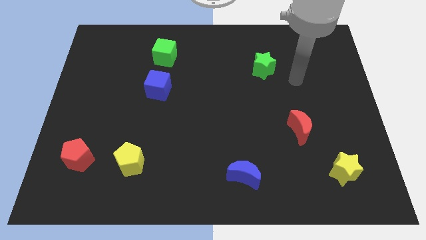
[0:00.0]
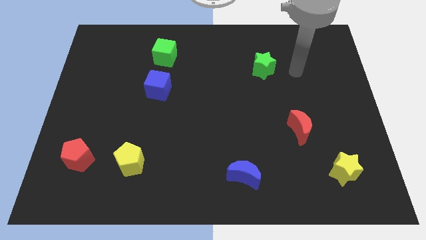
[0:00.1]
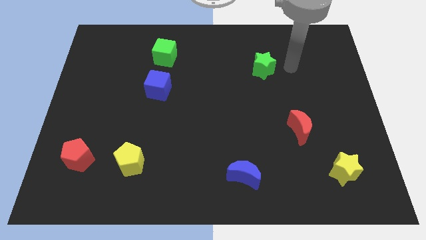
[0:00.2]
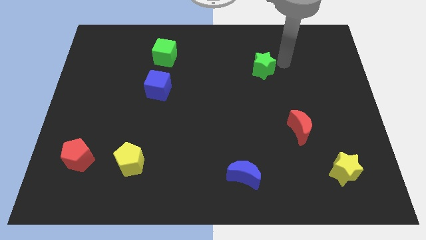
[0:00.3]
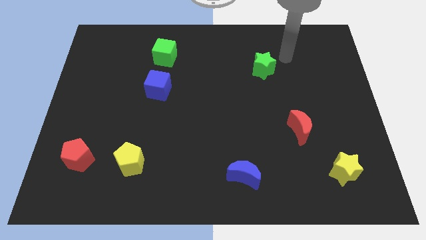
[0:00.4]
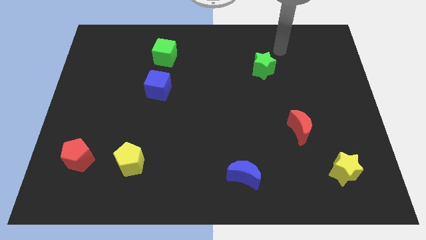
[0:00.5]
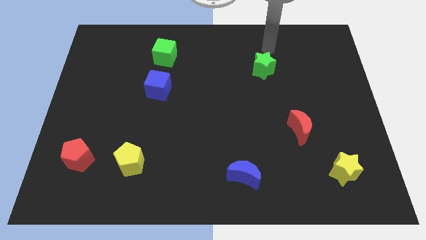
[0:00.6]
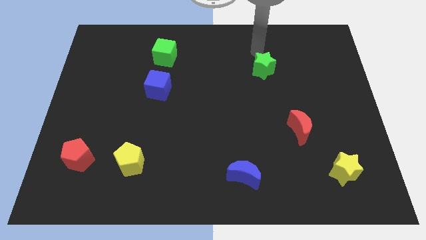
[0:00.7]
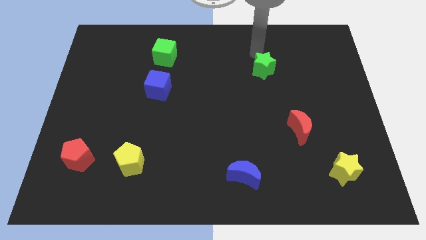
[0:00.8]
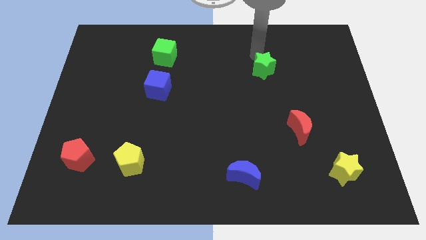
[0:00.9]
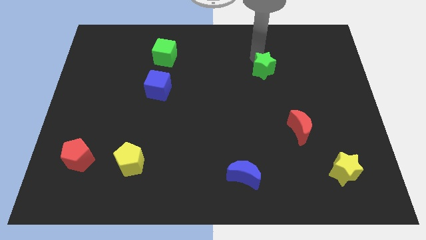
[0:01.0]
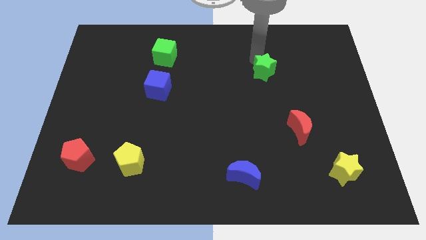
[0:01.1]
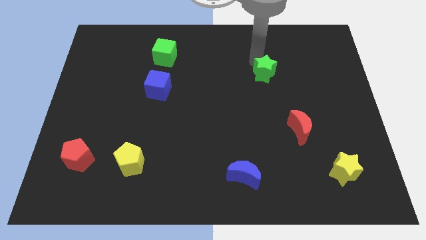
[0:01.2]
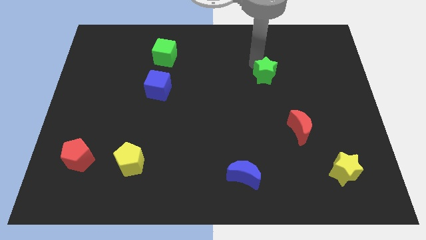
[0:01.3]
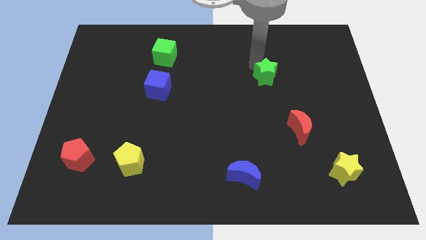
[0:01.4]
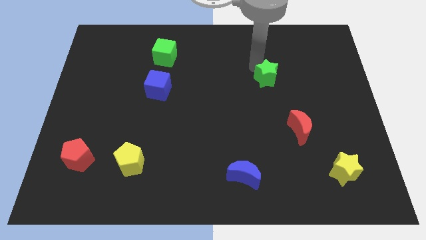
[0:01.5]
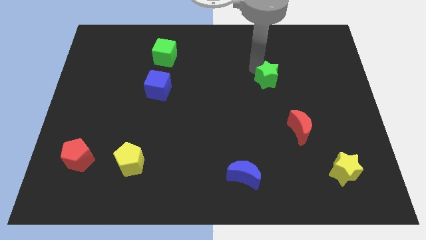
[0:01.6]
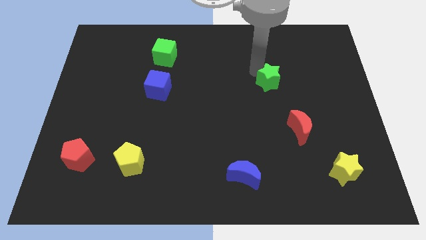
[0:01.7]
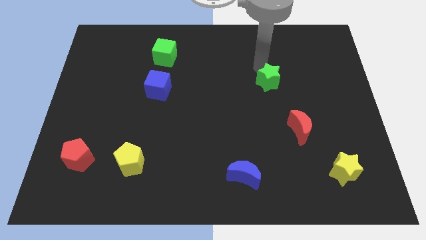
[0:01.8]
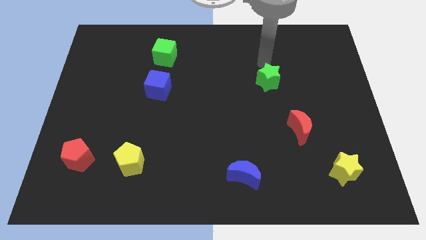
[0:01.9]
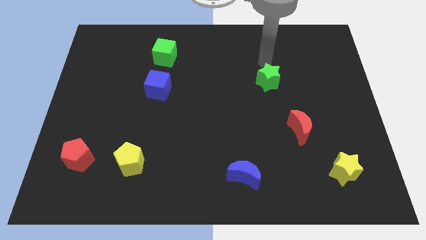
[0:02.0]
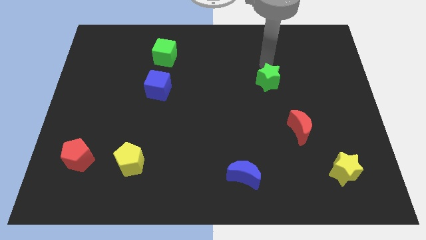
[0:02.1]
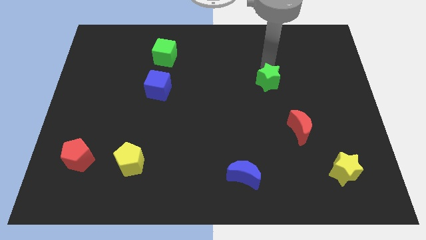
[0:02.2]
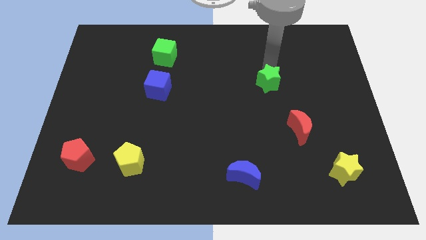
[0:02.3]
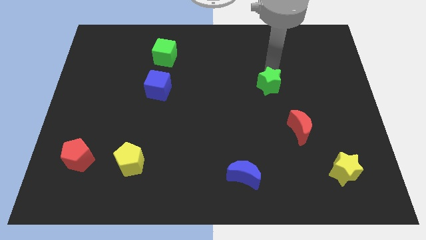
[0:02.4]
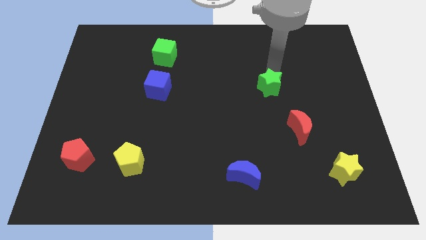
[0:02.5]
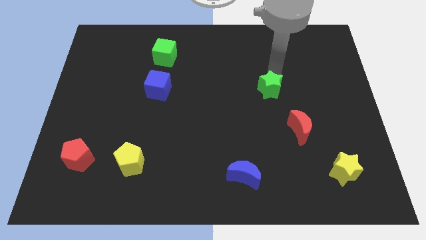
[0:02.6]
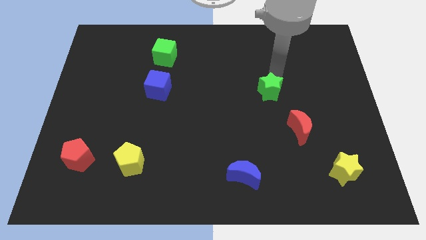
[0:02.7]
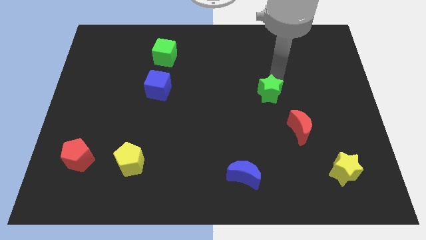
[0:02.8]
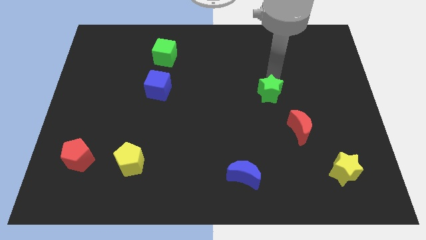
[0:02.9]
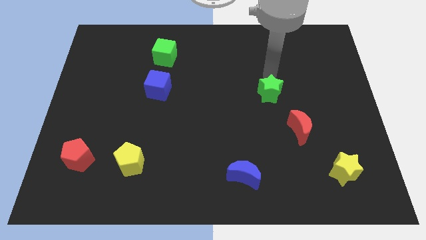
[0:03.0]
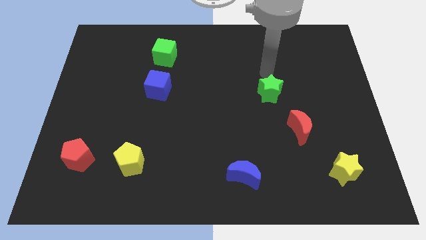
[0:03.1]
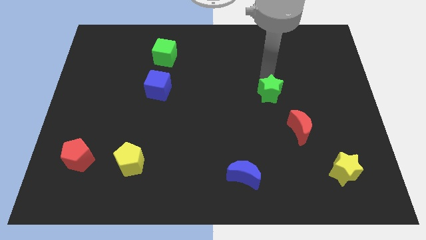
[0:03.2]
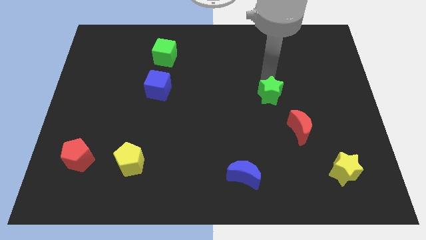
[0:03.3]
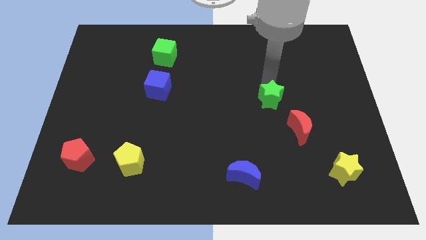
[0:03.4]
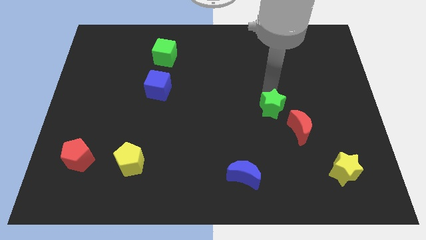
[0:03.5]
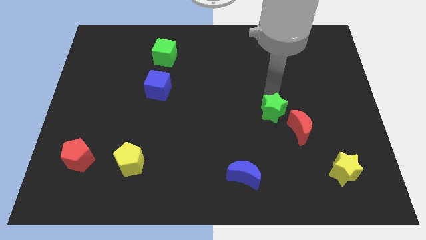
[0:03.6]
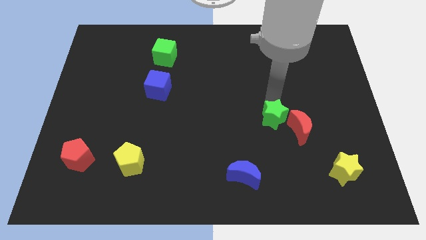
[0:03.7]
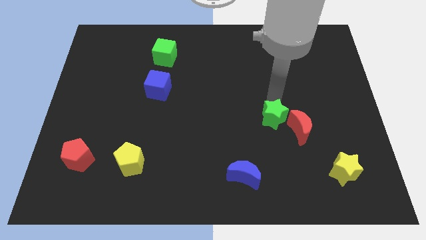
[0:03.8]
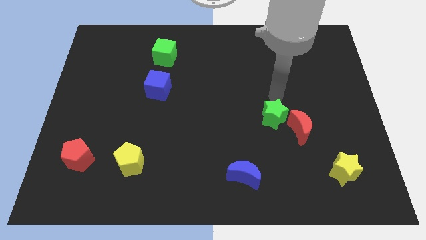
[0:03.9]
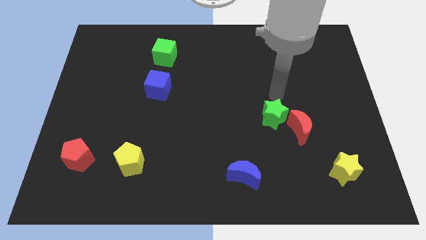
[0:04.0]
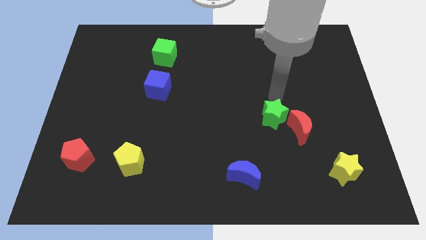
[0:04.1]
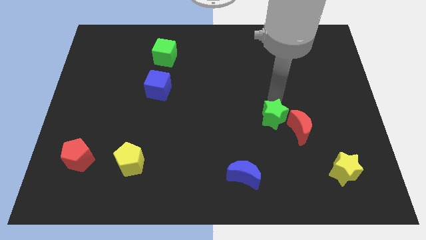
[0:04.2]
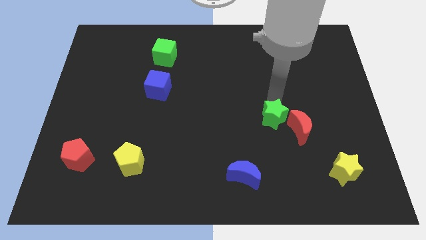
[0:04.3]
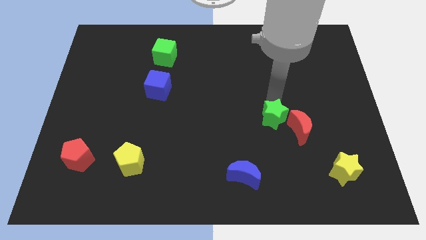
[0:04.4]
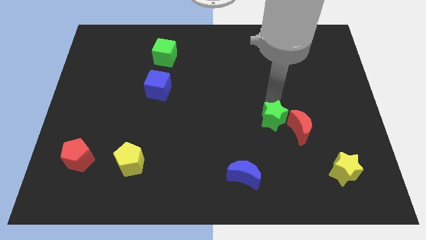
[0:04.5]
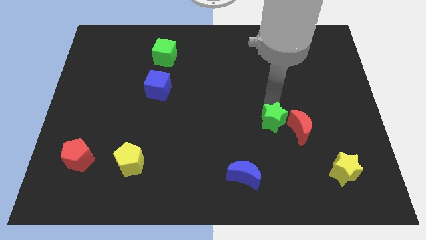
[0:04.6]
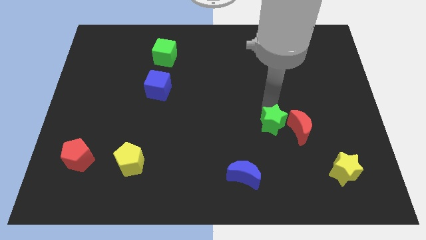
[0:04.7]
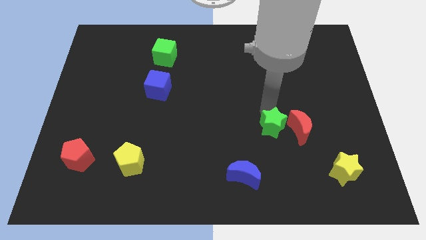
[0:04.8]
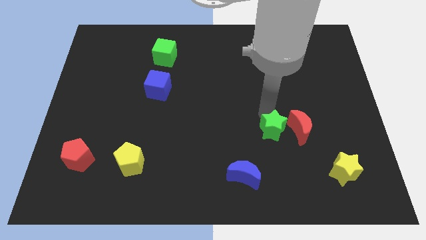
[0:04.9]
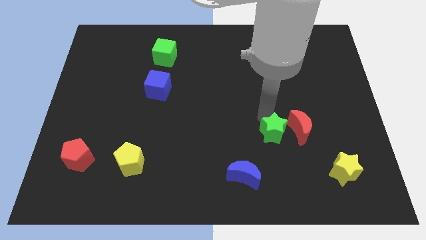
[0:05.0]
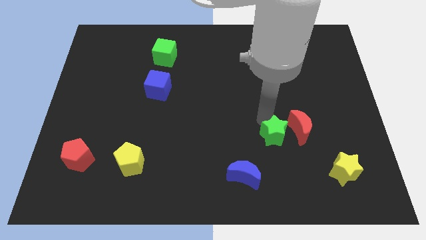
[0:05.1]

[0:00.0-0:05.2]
slide the green star downwards

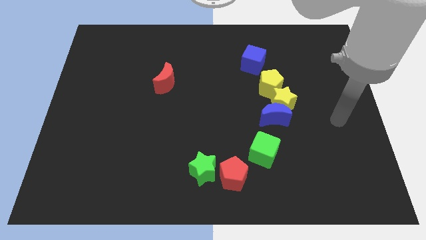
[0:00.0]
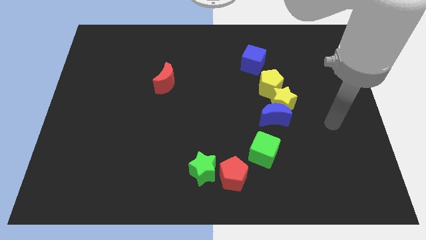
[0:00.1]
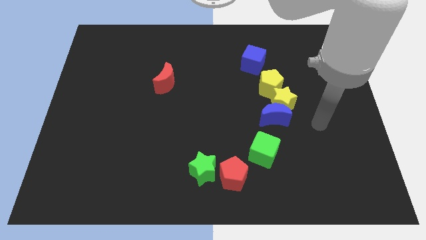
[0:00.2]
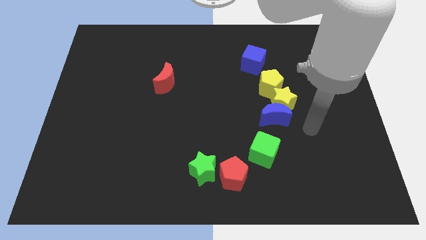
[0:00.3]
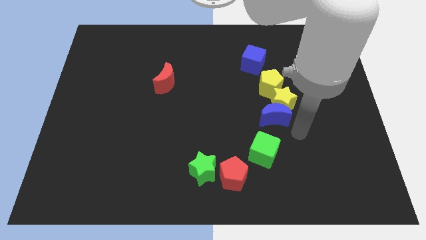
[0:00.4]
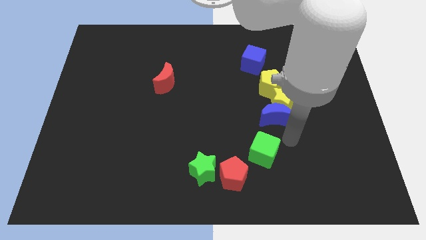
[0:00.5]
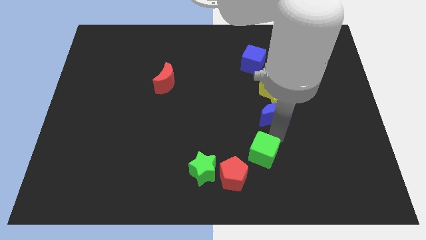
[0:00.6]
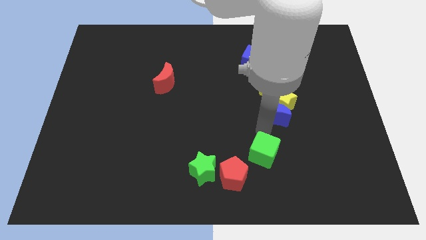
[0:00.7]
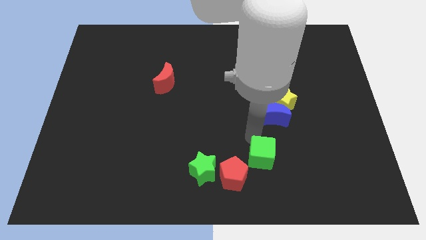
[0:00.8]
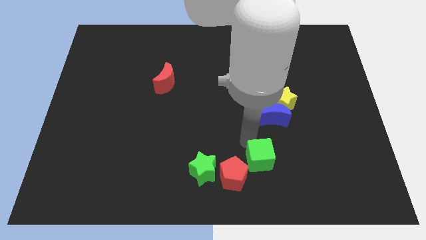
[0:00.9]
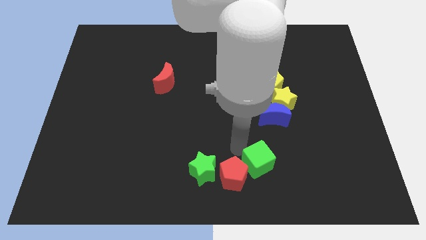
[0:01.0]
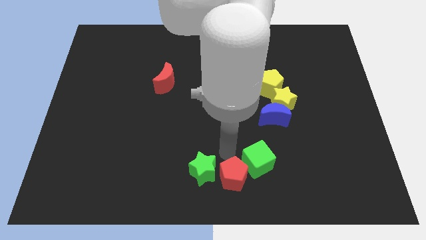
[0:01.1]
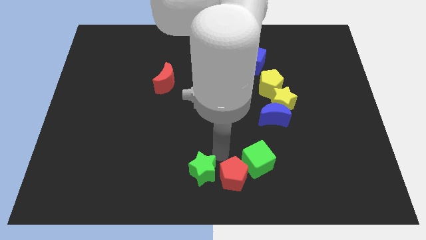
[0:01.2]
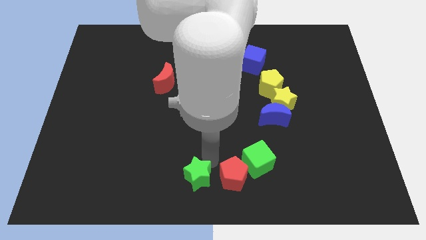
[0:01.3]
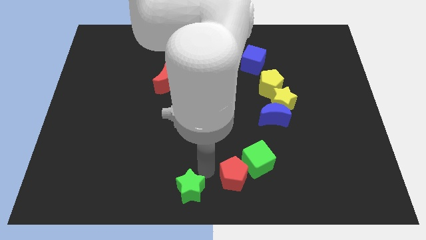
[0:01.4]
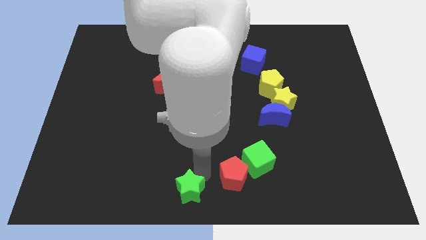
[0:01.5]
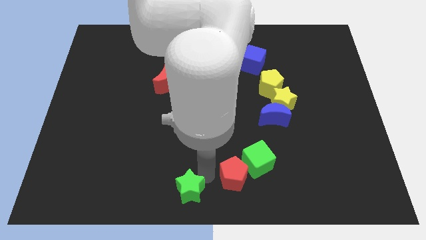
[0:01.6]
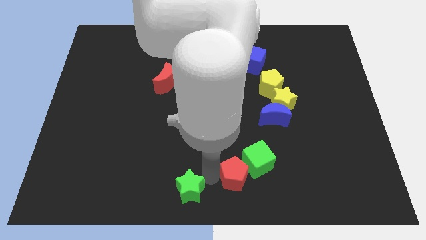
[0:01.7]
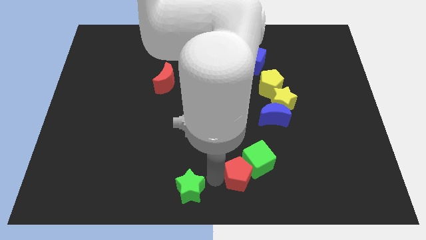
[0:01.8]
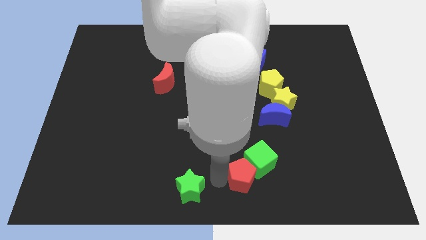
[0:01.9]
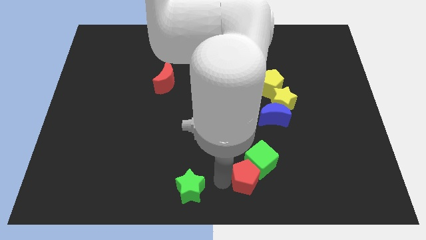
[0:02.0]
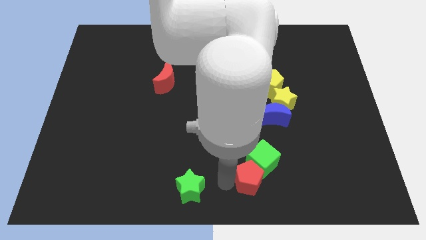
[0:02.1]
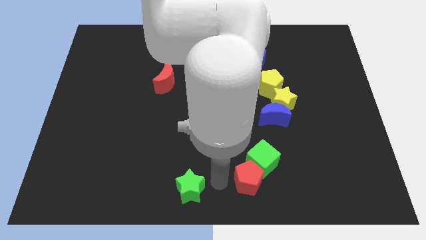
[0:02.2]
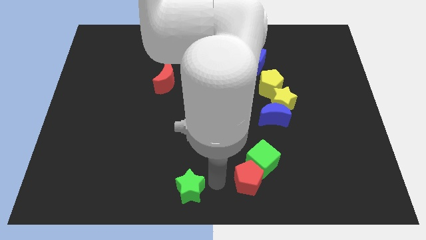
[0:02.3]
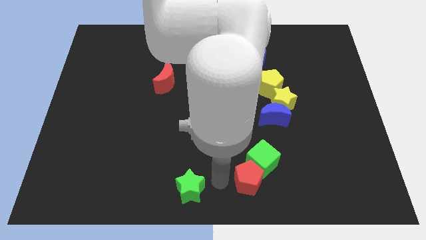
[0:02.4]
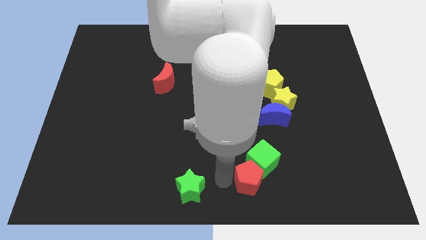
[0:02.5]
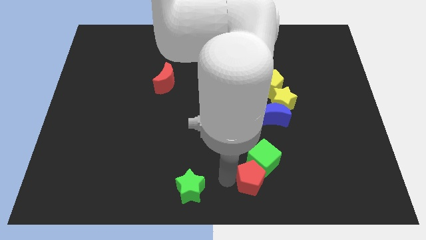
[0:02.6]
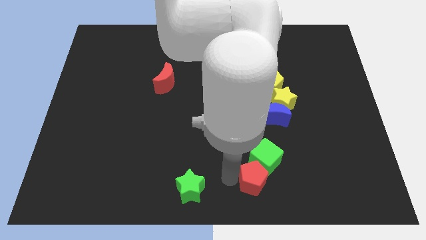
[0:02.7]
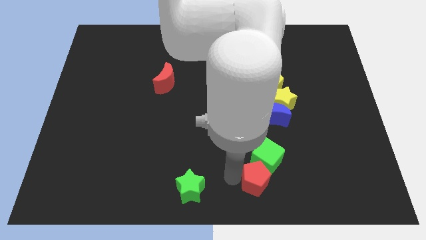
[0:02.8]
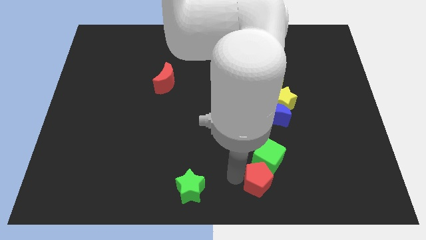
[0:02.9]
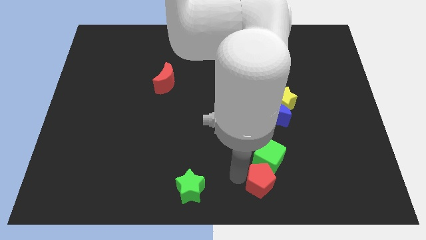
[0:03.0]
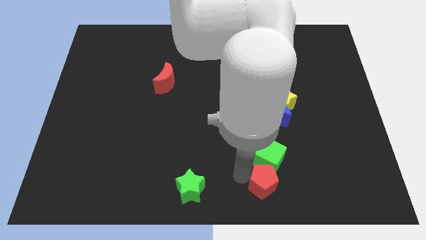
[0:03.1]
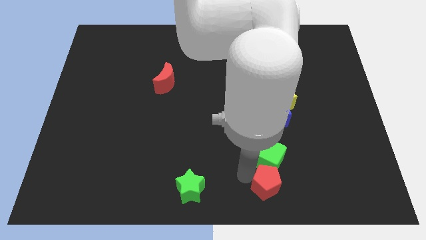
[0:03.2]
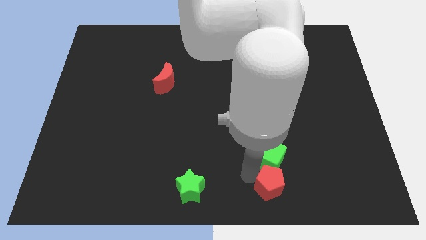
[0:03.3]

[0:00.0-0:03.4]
move the red pentagon to the right a little bit
